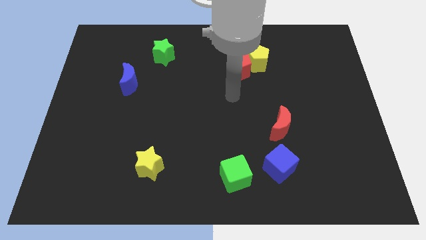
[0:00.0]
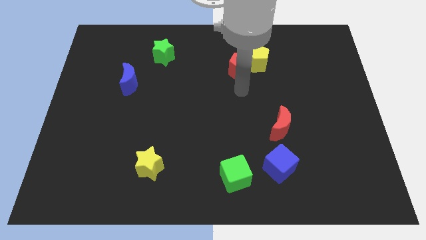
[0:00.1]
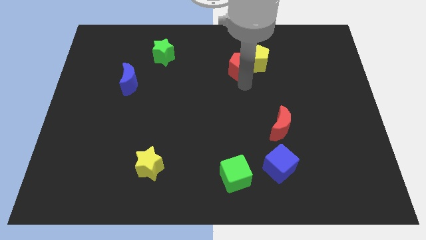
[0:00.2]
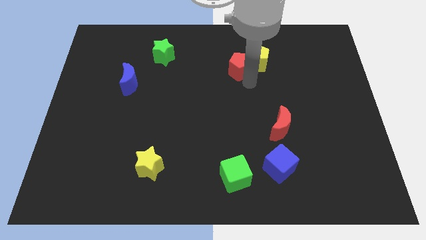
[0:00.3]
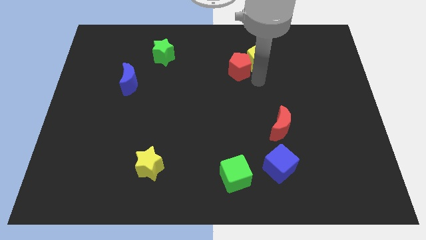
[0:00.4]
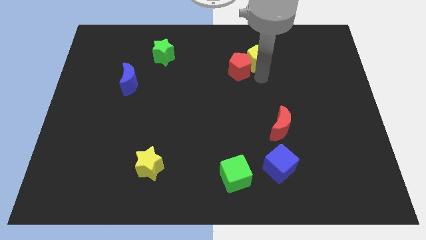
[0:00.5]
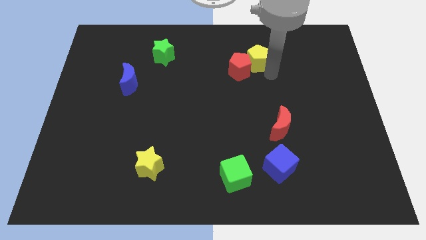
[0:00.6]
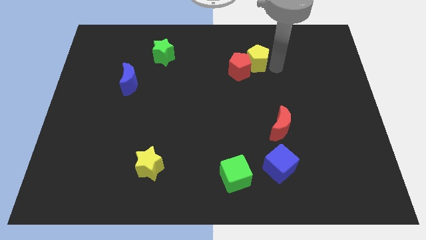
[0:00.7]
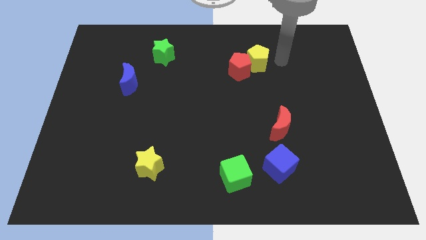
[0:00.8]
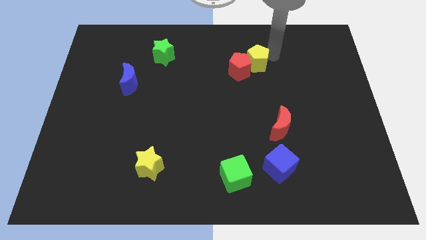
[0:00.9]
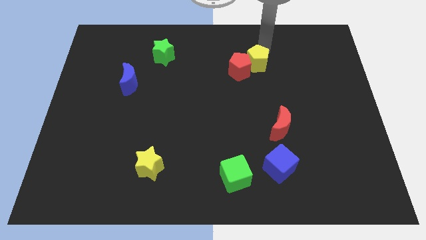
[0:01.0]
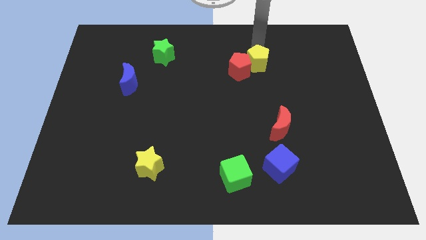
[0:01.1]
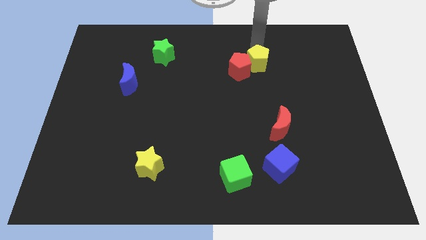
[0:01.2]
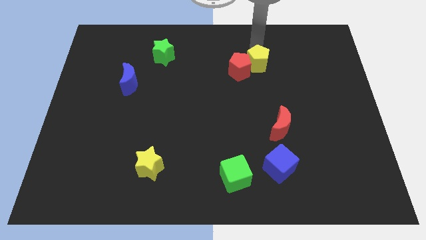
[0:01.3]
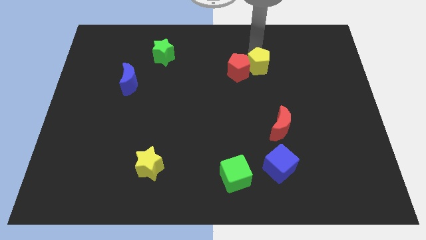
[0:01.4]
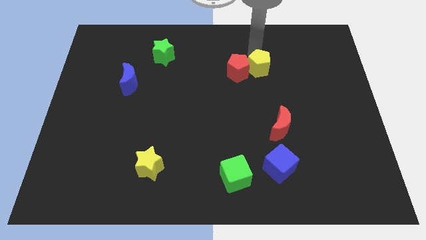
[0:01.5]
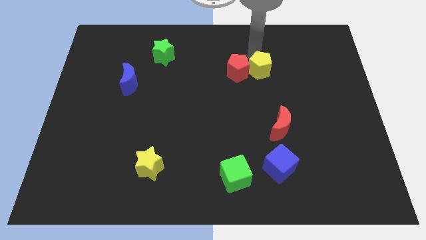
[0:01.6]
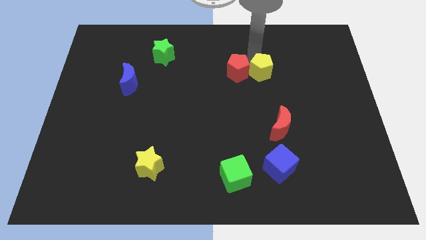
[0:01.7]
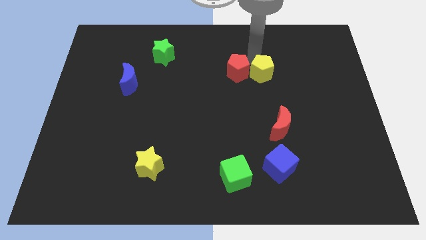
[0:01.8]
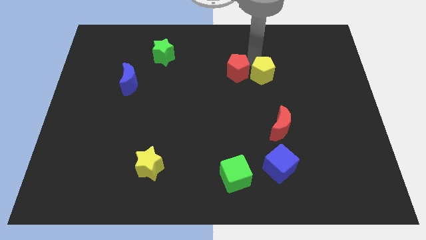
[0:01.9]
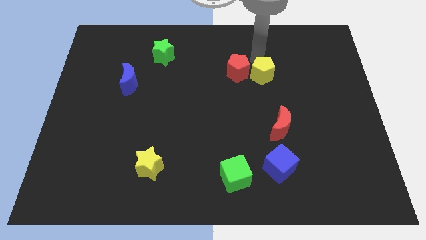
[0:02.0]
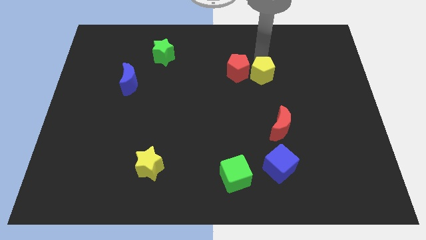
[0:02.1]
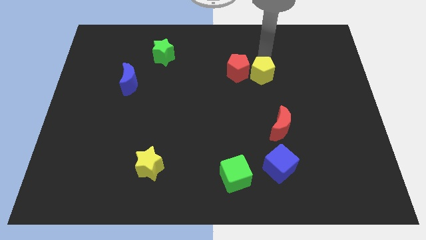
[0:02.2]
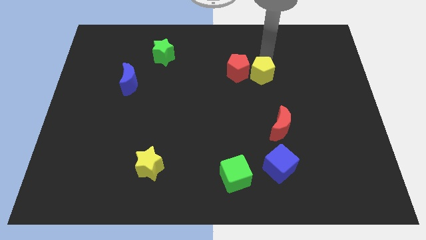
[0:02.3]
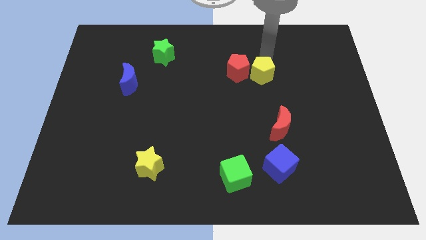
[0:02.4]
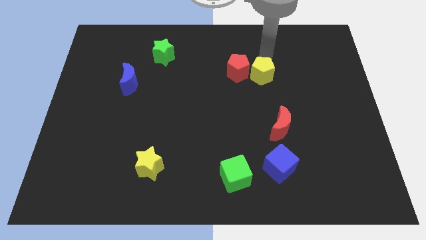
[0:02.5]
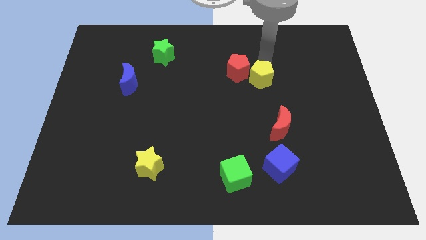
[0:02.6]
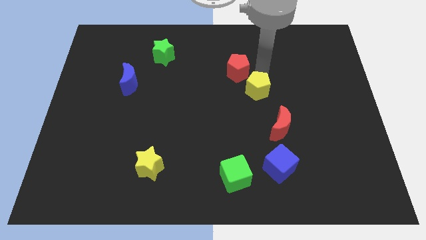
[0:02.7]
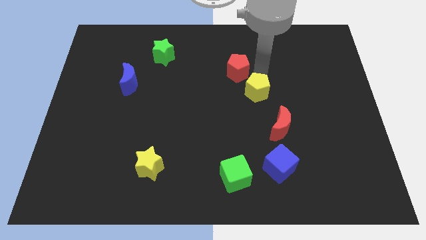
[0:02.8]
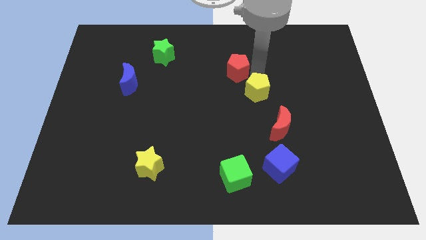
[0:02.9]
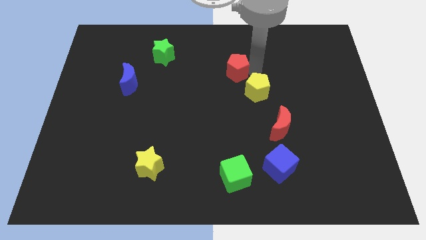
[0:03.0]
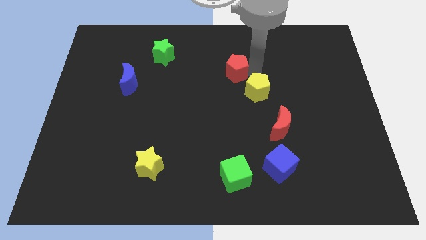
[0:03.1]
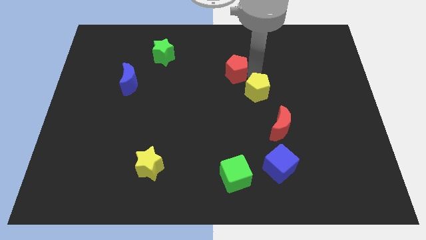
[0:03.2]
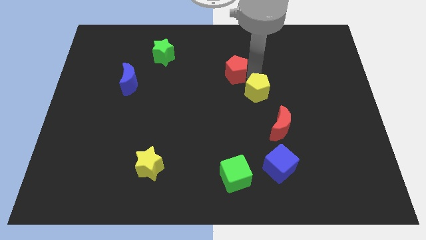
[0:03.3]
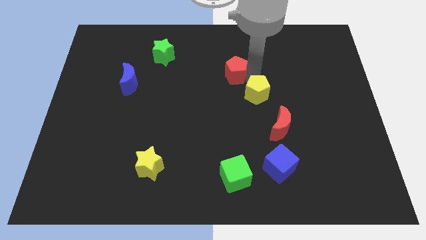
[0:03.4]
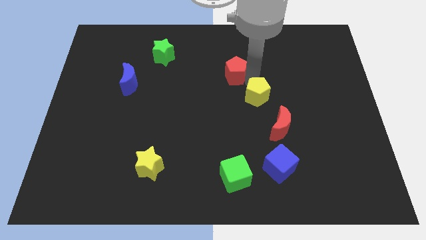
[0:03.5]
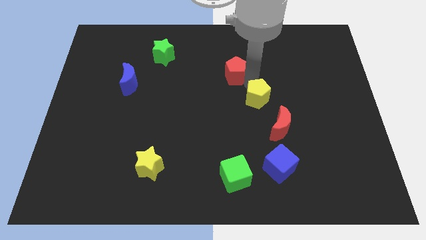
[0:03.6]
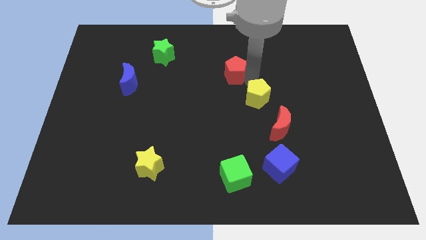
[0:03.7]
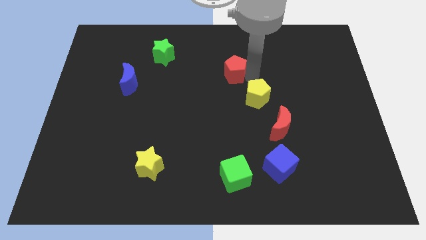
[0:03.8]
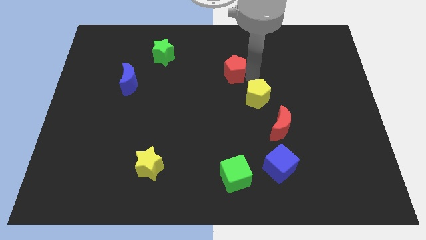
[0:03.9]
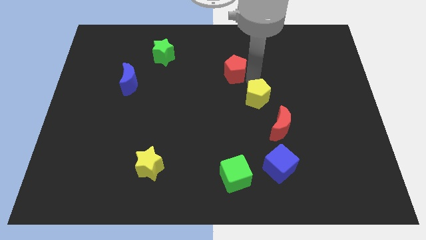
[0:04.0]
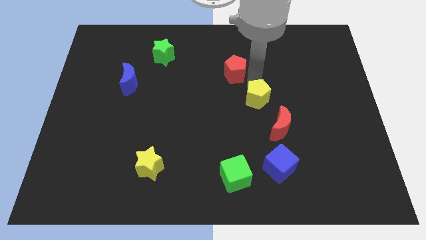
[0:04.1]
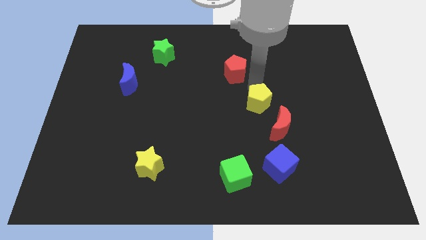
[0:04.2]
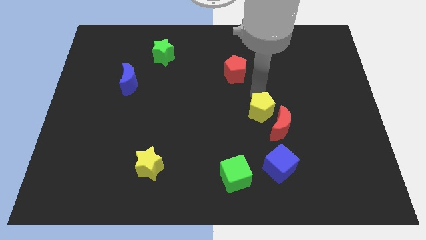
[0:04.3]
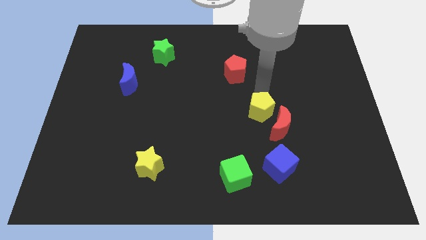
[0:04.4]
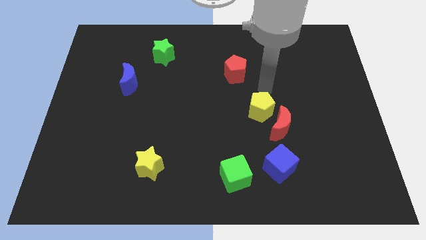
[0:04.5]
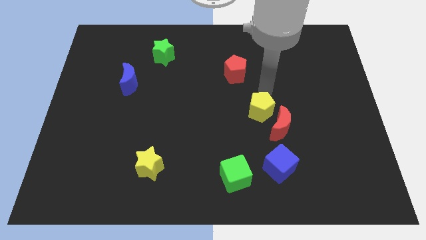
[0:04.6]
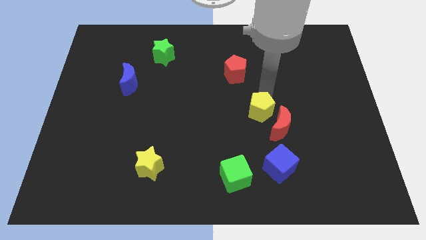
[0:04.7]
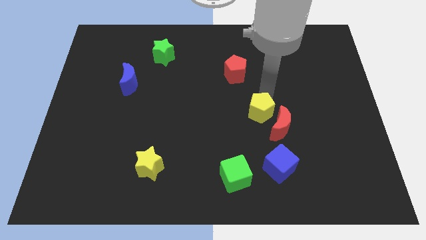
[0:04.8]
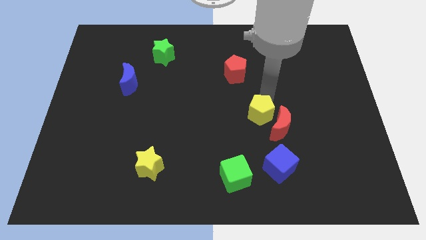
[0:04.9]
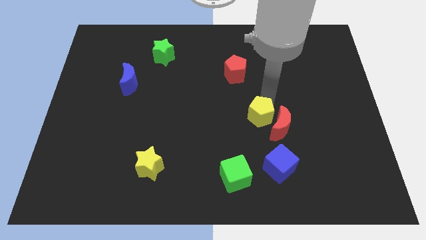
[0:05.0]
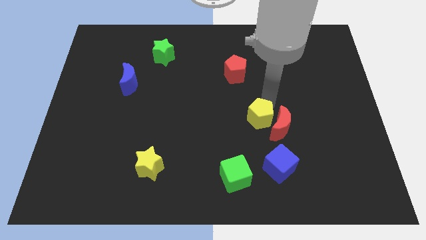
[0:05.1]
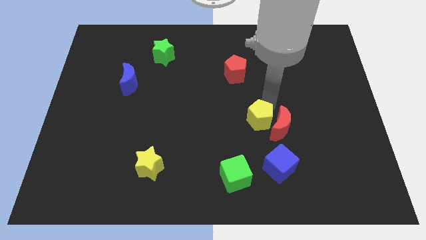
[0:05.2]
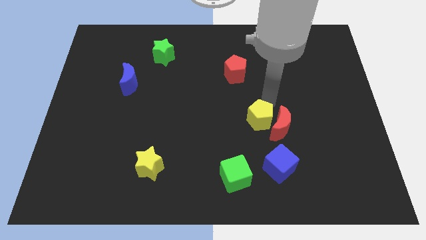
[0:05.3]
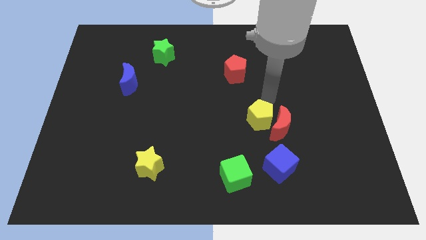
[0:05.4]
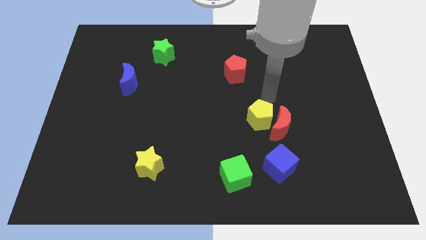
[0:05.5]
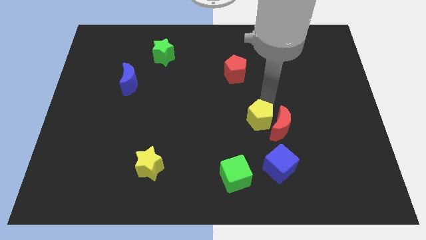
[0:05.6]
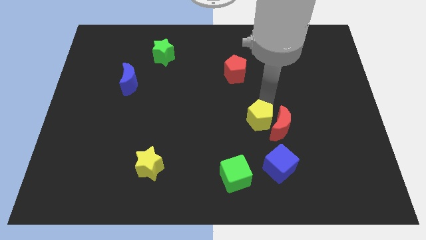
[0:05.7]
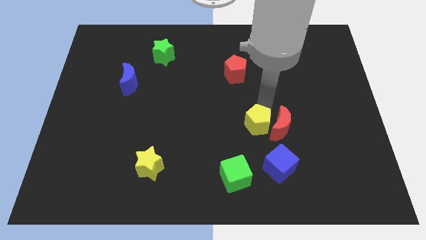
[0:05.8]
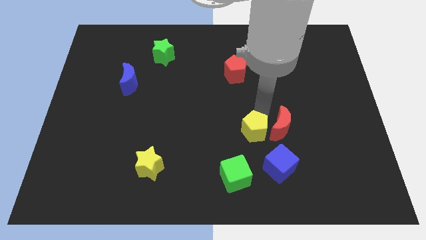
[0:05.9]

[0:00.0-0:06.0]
push the yellow pentagon to the top left side of the blue cube

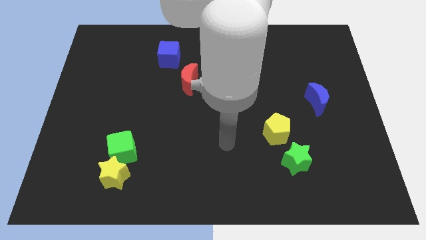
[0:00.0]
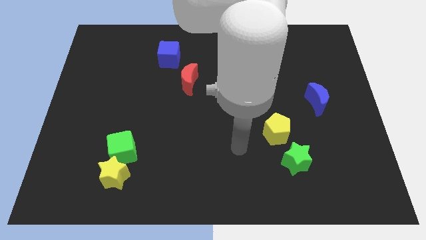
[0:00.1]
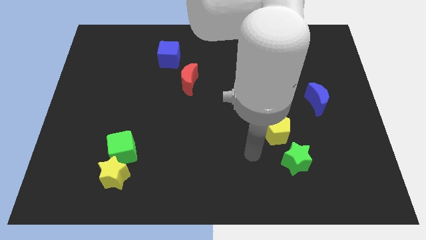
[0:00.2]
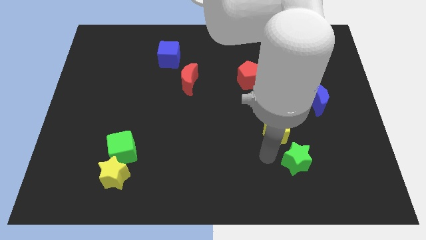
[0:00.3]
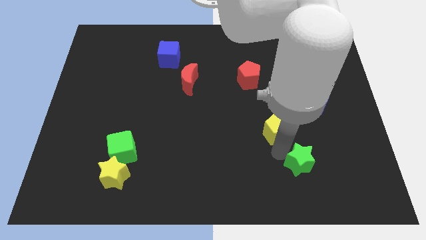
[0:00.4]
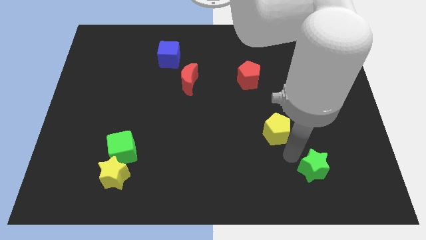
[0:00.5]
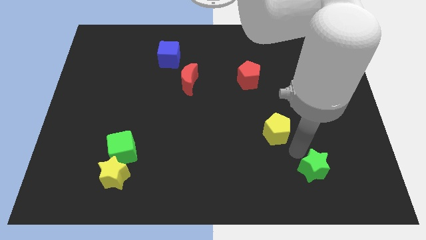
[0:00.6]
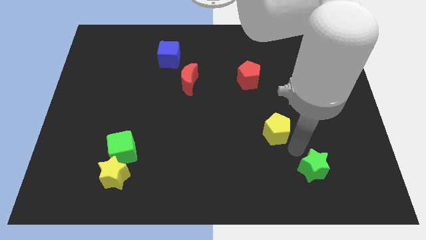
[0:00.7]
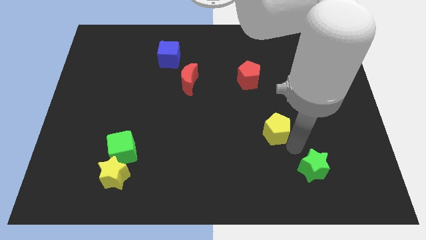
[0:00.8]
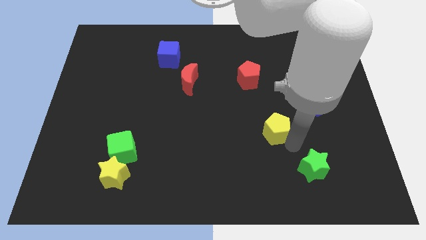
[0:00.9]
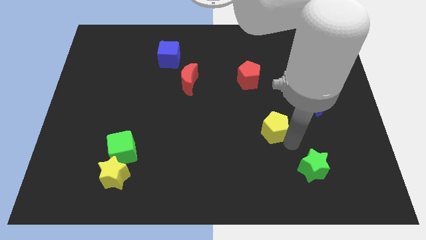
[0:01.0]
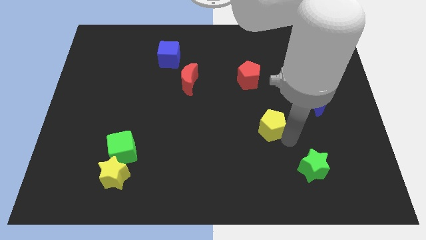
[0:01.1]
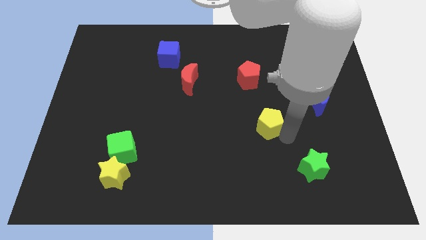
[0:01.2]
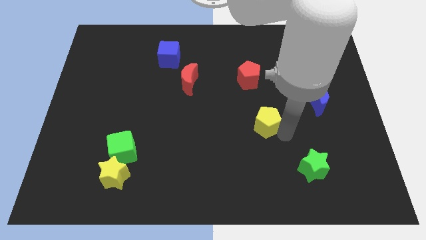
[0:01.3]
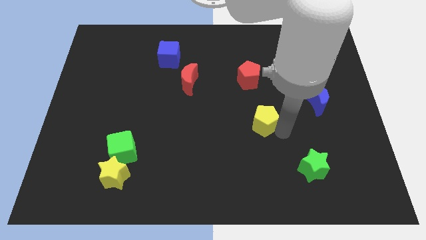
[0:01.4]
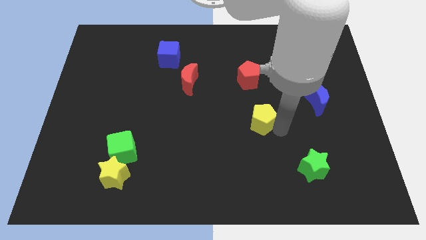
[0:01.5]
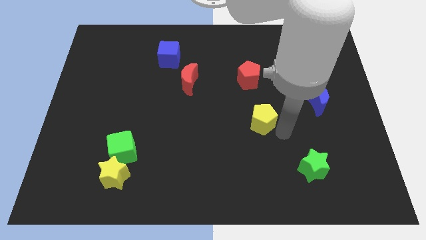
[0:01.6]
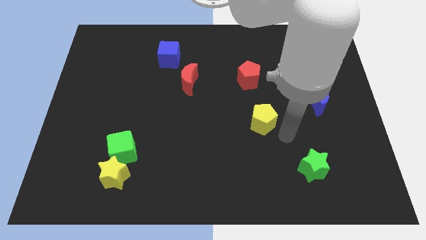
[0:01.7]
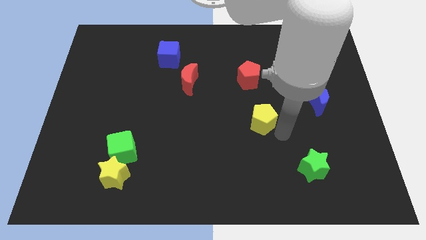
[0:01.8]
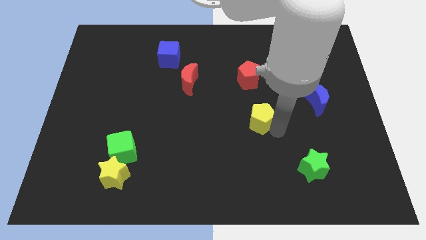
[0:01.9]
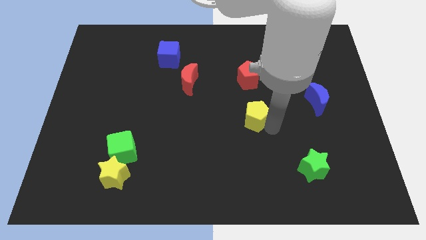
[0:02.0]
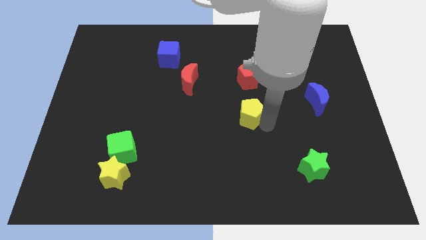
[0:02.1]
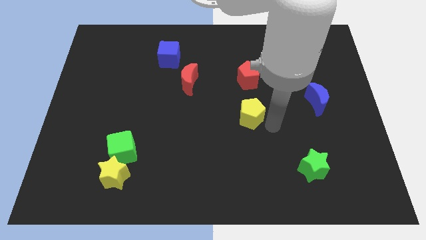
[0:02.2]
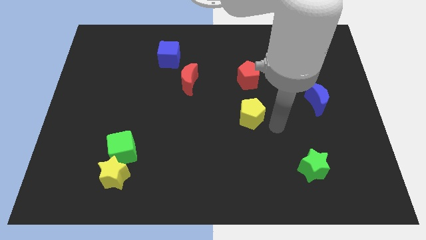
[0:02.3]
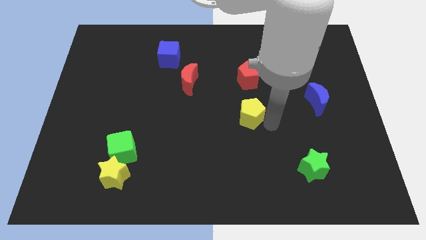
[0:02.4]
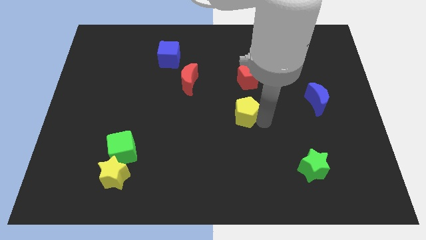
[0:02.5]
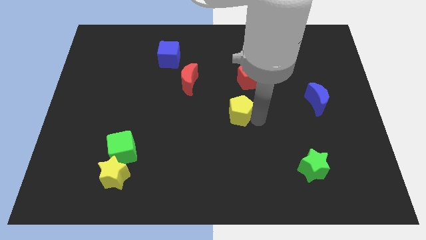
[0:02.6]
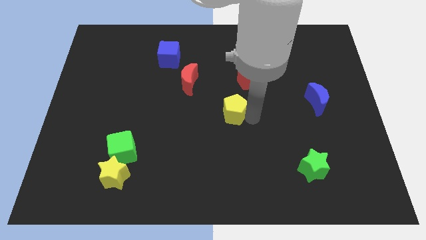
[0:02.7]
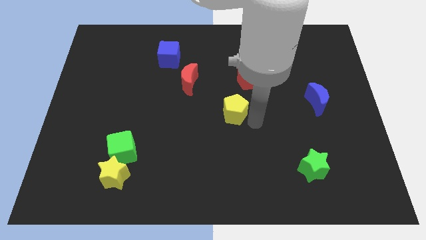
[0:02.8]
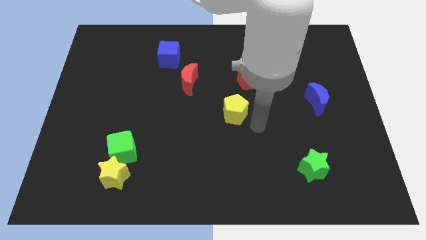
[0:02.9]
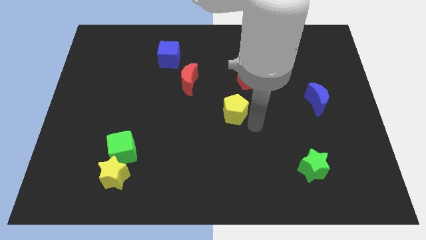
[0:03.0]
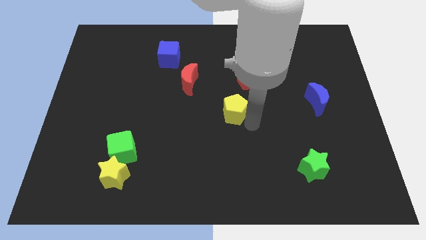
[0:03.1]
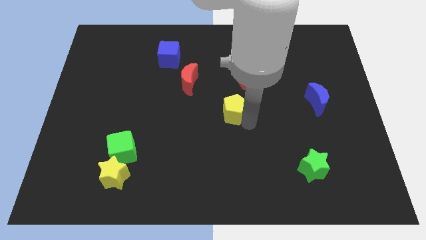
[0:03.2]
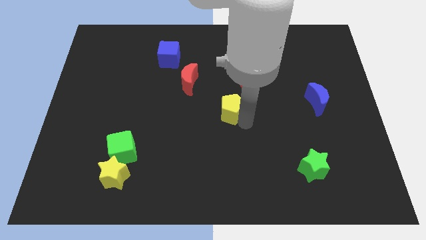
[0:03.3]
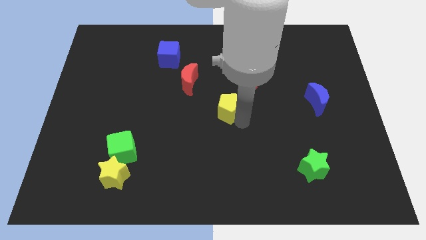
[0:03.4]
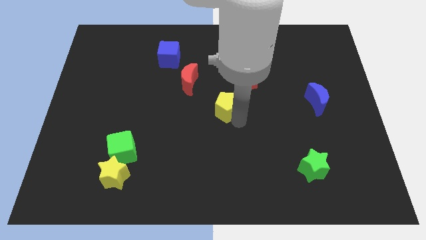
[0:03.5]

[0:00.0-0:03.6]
slide the yellow pentagon diagonally down and to the right of the red moon
